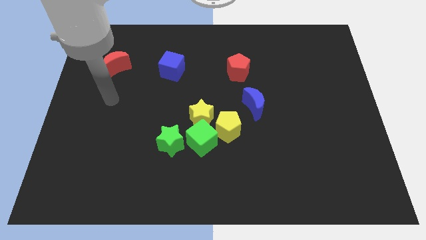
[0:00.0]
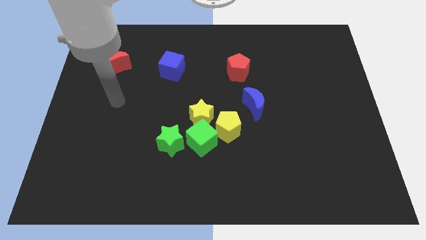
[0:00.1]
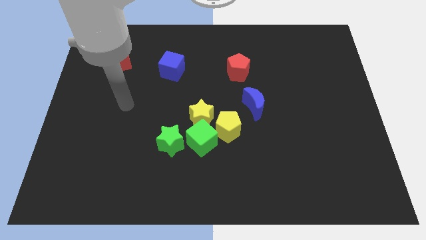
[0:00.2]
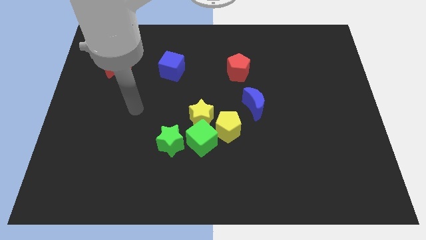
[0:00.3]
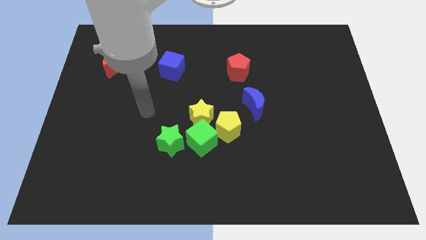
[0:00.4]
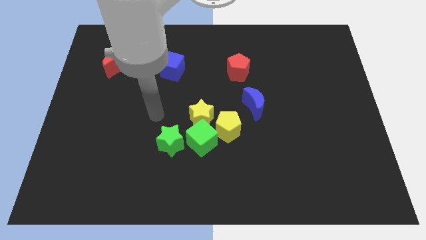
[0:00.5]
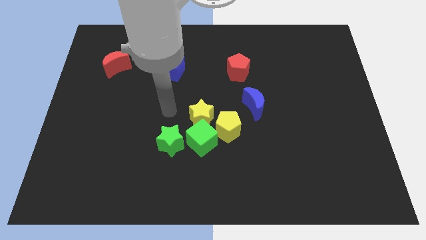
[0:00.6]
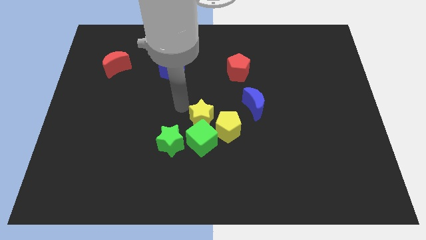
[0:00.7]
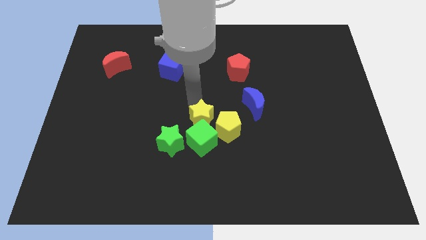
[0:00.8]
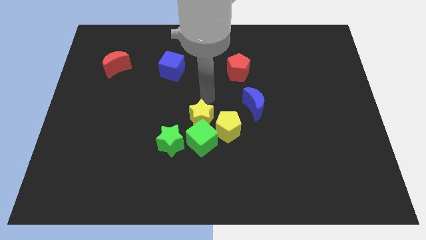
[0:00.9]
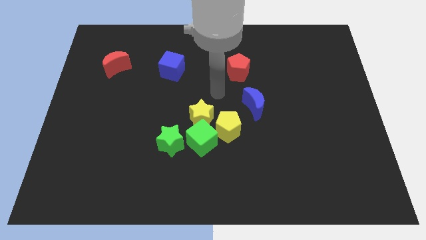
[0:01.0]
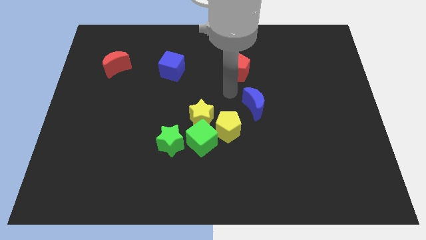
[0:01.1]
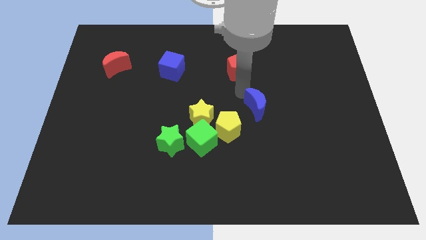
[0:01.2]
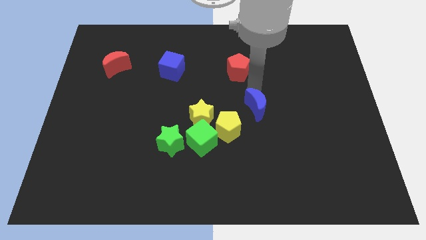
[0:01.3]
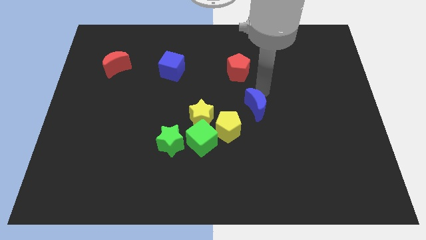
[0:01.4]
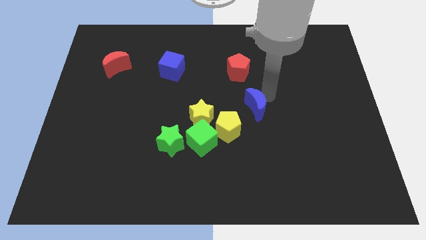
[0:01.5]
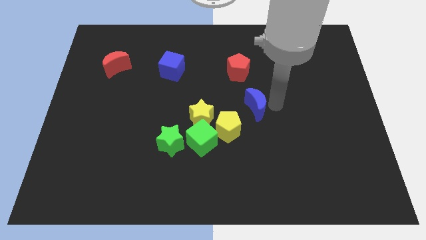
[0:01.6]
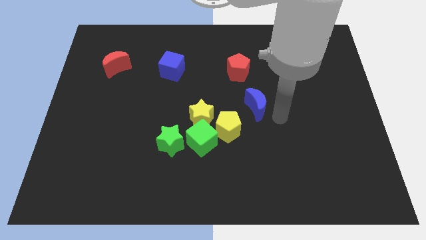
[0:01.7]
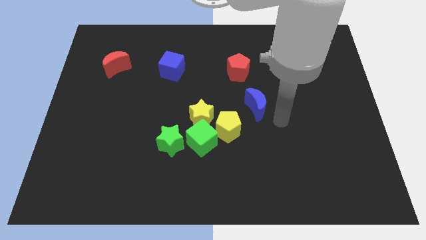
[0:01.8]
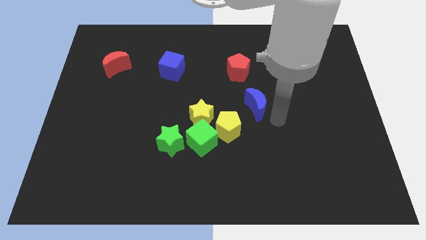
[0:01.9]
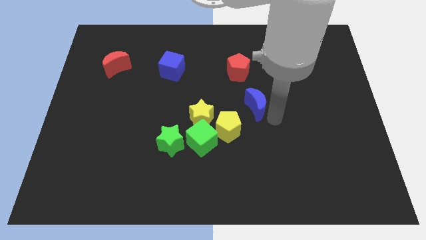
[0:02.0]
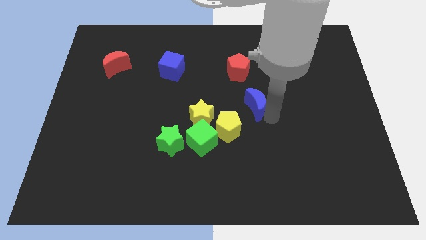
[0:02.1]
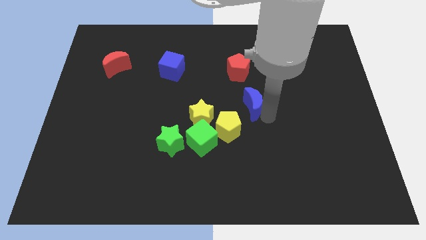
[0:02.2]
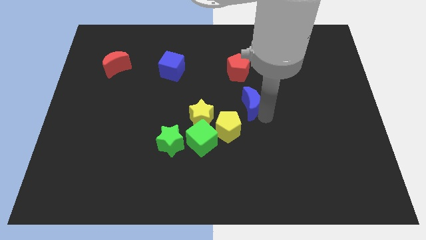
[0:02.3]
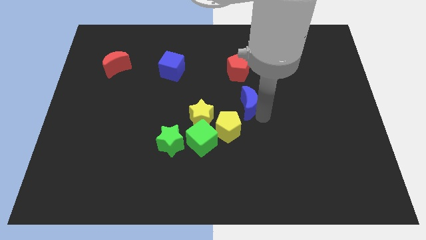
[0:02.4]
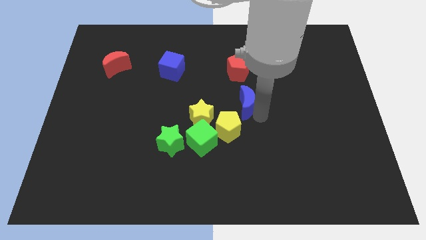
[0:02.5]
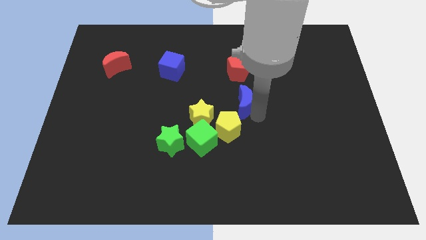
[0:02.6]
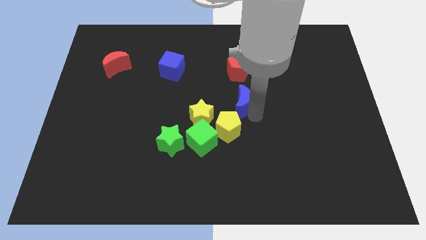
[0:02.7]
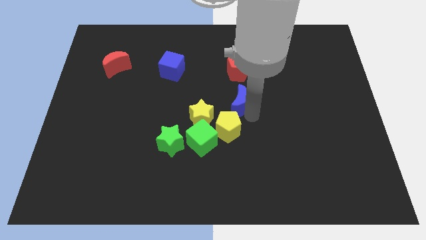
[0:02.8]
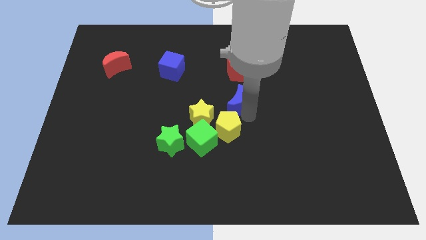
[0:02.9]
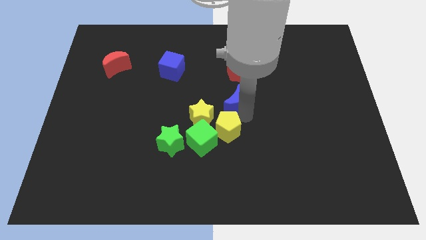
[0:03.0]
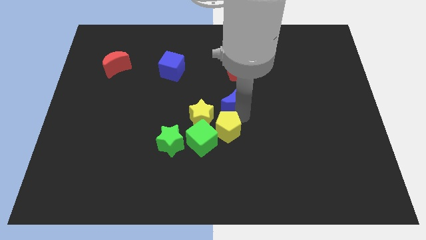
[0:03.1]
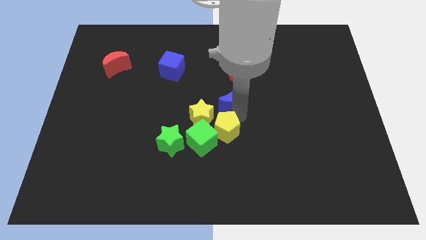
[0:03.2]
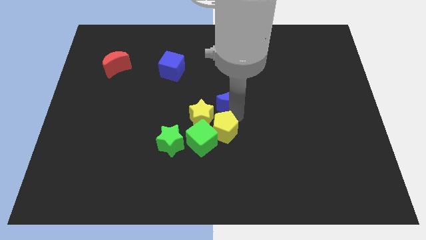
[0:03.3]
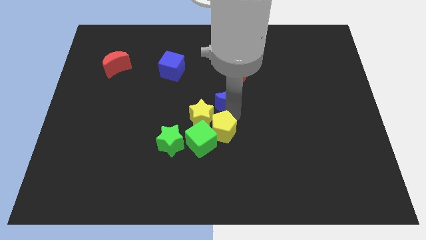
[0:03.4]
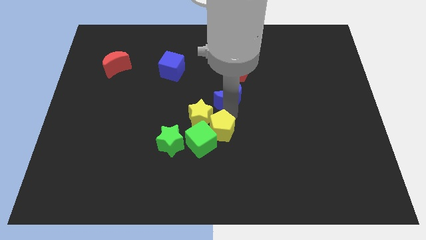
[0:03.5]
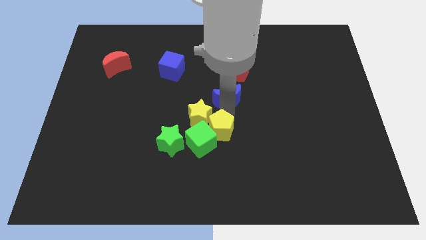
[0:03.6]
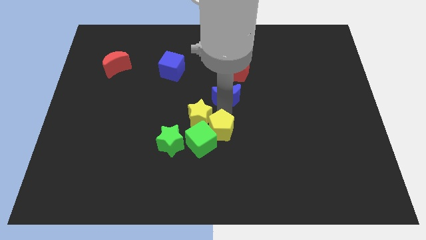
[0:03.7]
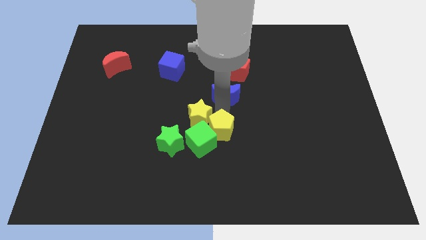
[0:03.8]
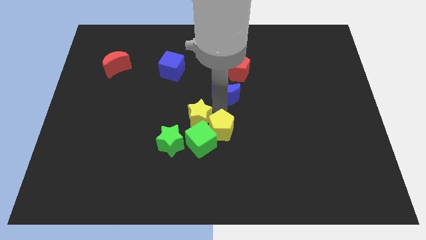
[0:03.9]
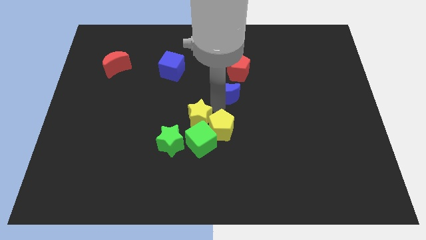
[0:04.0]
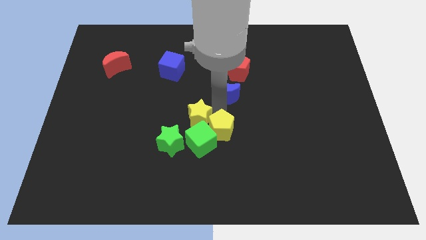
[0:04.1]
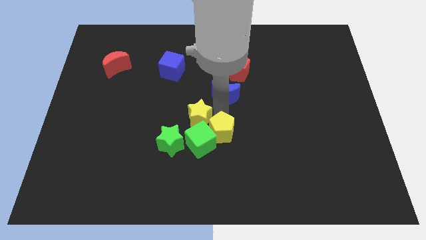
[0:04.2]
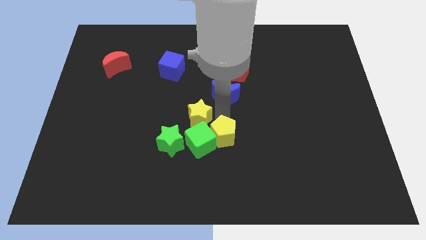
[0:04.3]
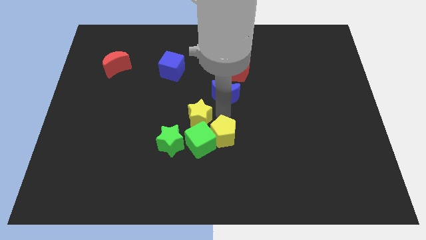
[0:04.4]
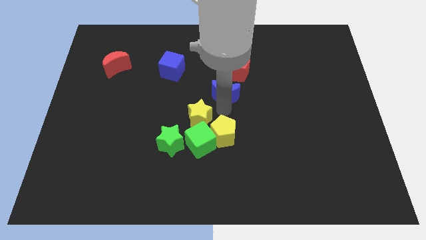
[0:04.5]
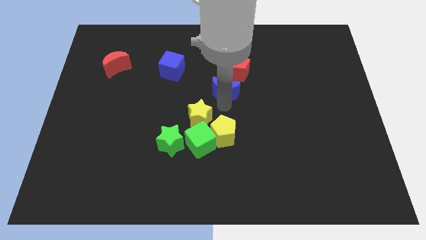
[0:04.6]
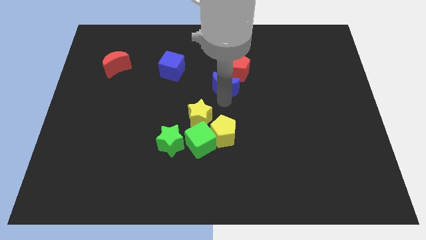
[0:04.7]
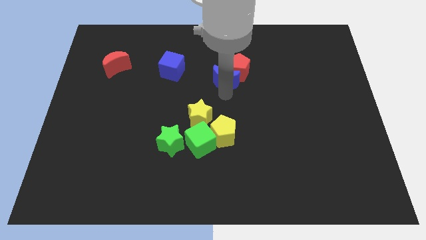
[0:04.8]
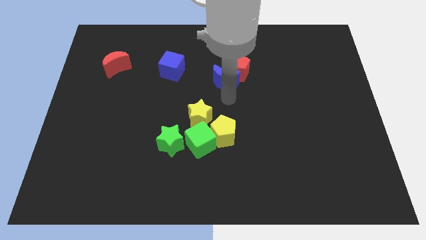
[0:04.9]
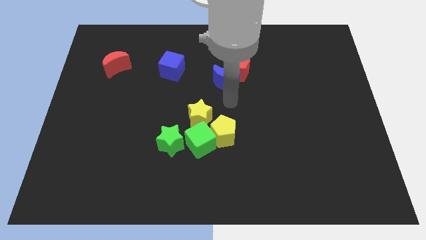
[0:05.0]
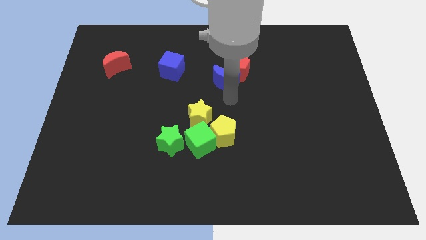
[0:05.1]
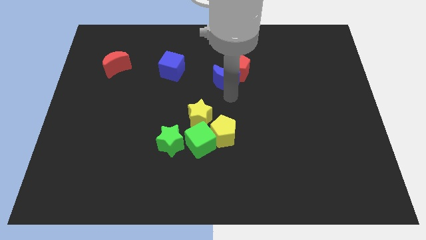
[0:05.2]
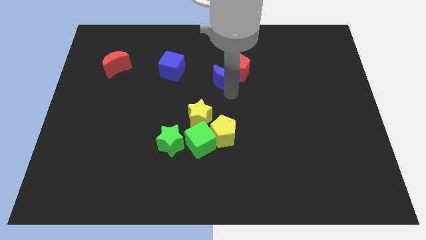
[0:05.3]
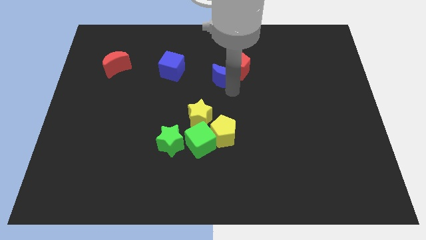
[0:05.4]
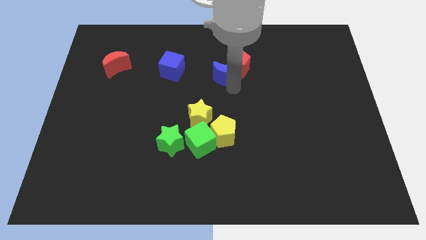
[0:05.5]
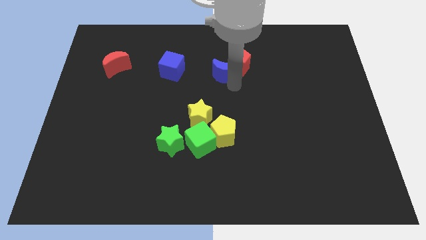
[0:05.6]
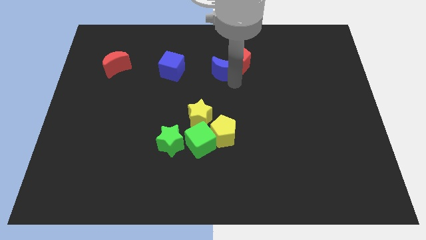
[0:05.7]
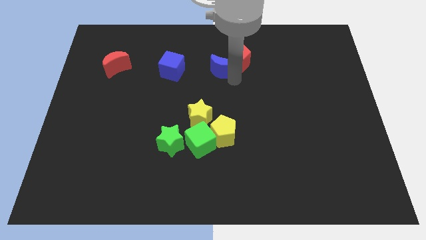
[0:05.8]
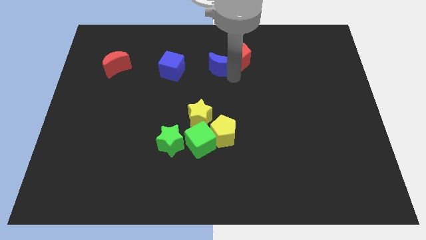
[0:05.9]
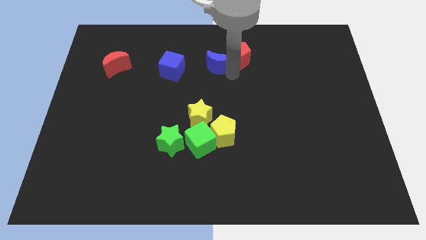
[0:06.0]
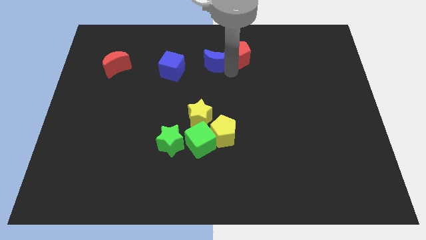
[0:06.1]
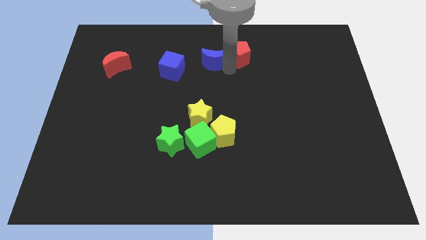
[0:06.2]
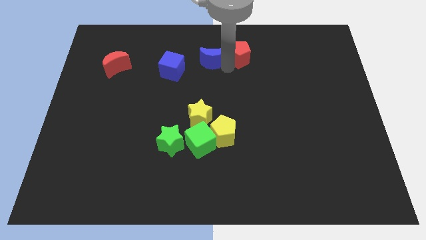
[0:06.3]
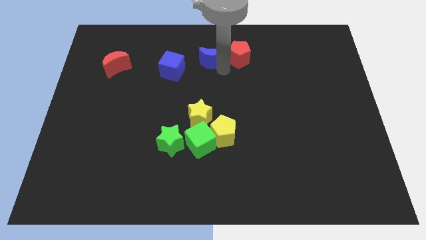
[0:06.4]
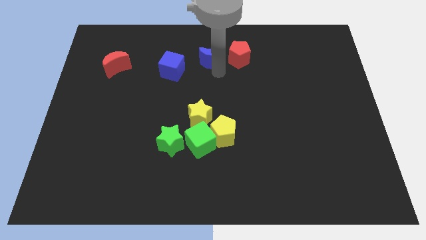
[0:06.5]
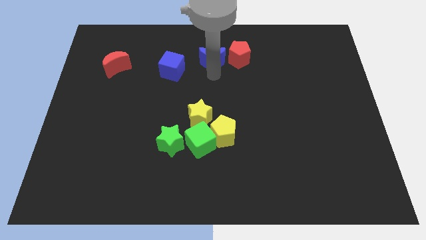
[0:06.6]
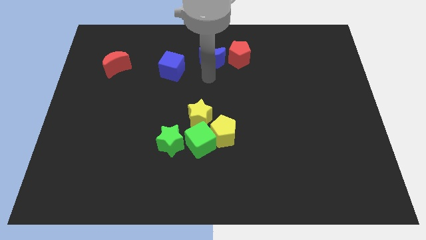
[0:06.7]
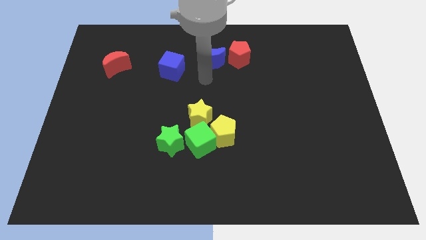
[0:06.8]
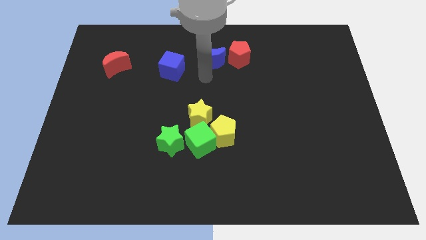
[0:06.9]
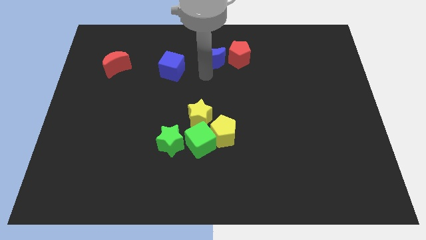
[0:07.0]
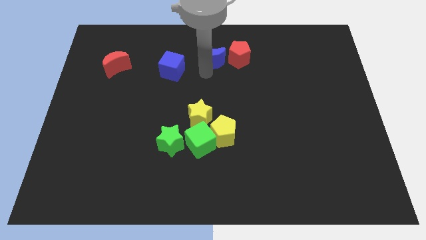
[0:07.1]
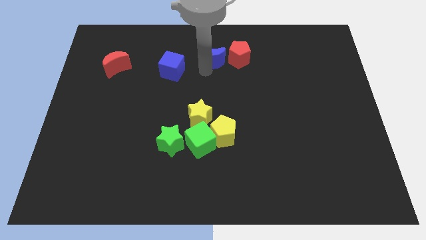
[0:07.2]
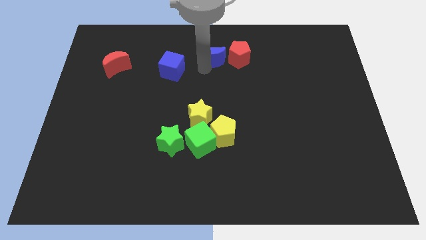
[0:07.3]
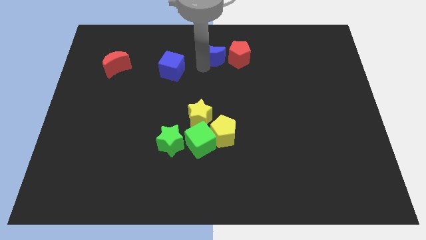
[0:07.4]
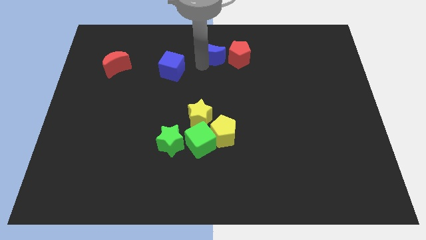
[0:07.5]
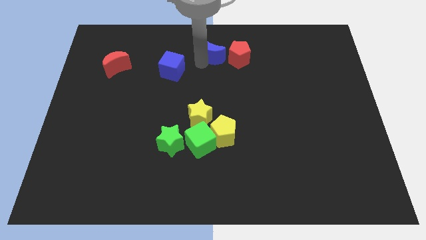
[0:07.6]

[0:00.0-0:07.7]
push the blue moon diagonally up and to the left of the red pentagon
